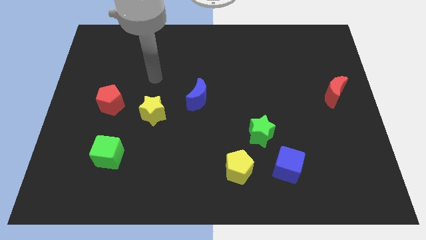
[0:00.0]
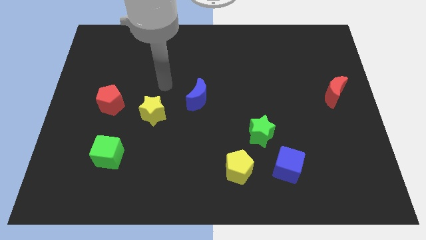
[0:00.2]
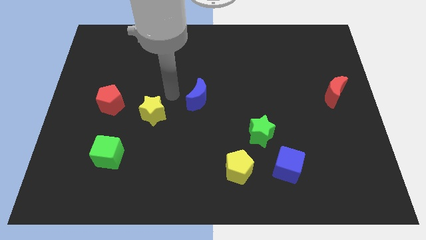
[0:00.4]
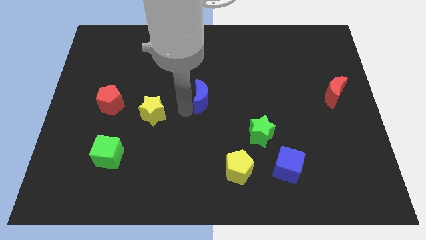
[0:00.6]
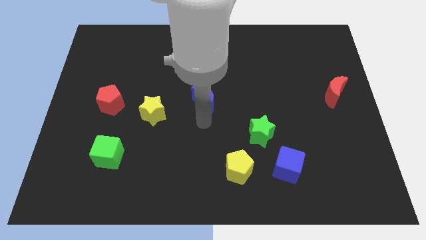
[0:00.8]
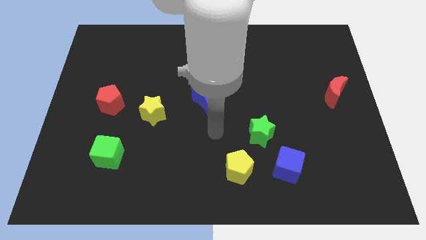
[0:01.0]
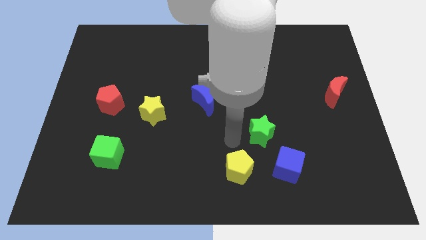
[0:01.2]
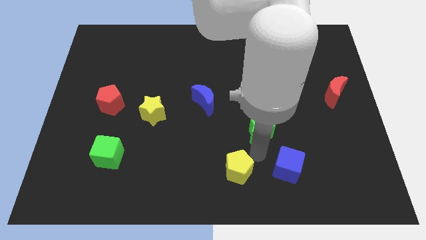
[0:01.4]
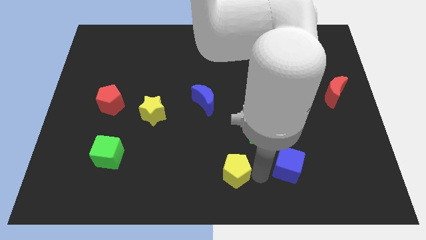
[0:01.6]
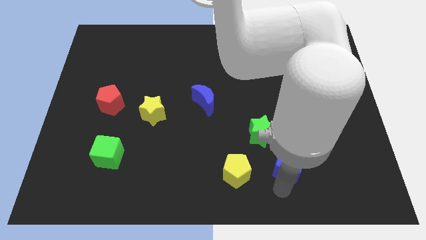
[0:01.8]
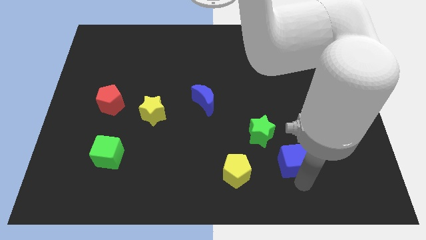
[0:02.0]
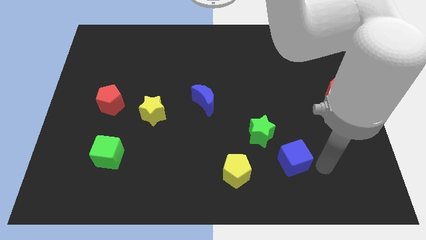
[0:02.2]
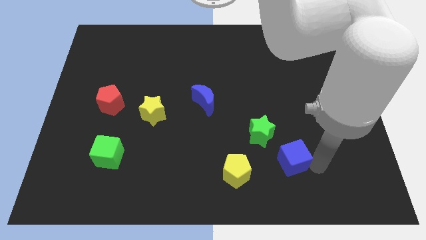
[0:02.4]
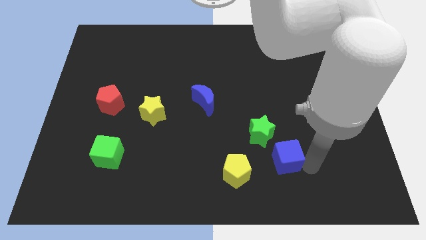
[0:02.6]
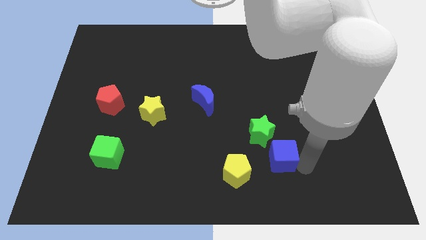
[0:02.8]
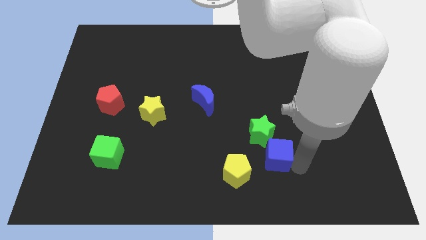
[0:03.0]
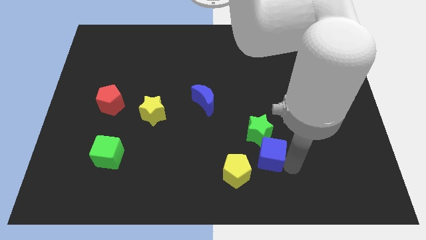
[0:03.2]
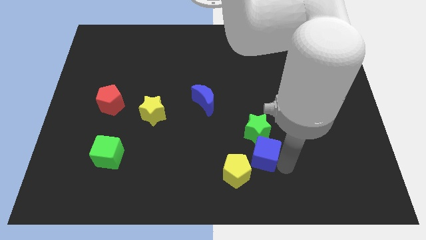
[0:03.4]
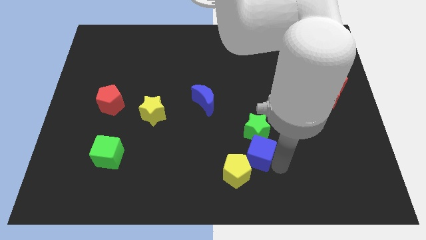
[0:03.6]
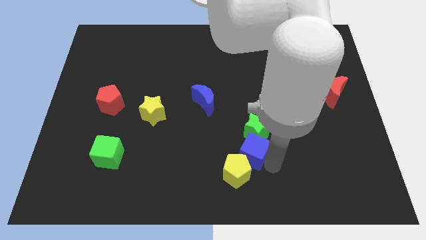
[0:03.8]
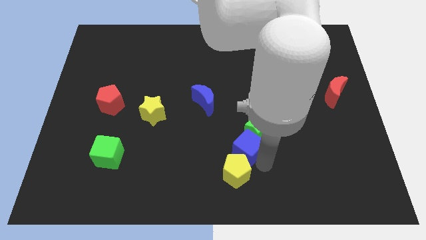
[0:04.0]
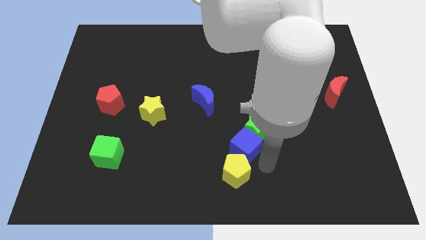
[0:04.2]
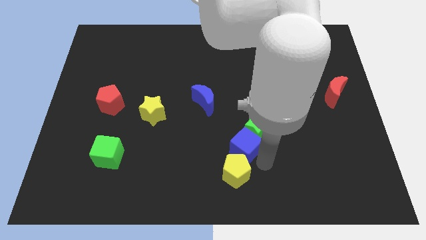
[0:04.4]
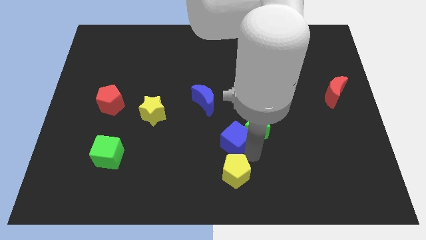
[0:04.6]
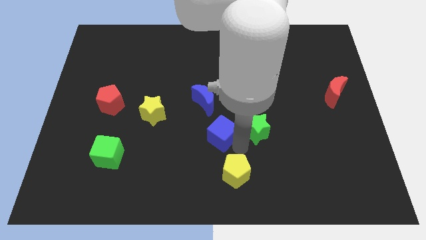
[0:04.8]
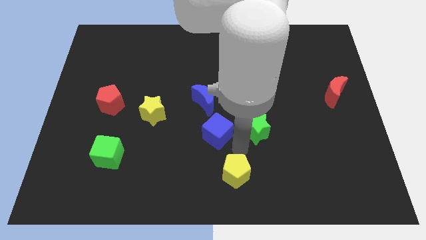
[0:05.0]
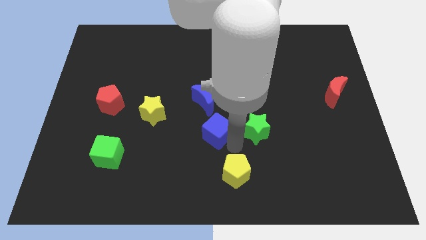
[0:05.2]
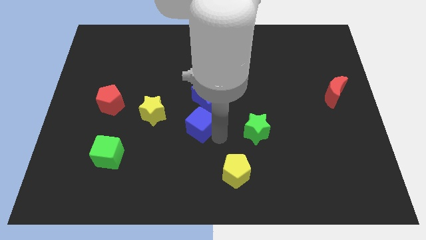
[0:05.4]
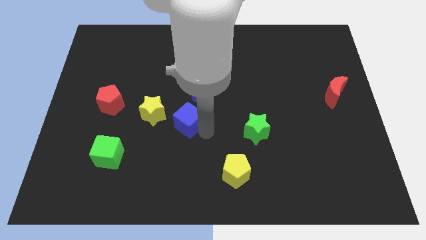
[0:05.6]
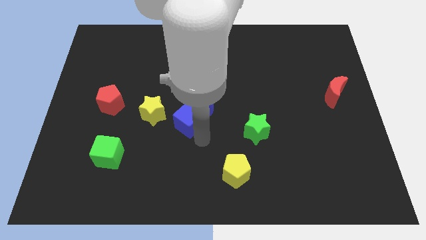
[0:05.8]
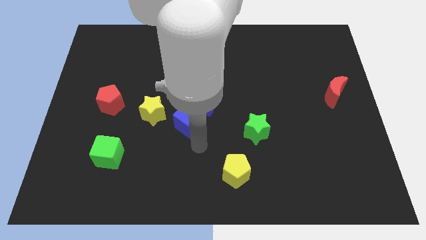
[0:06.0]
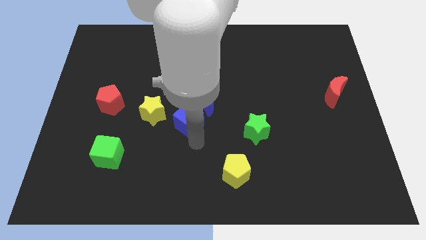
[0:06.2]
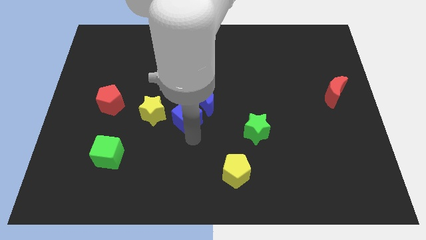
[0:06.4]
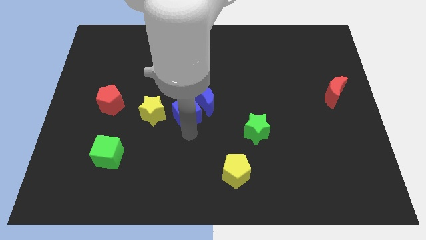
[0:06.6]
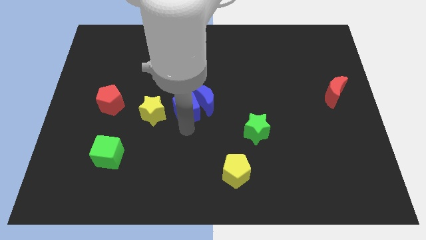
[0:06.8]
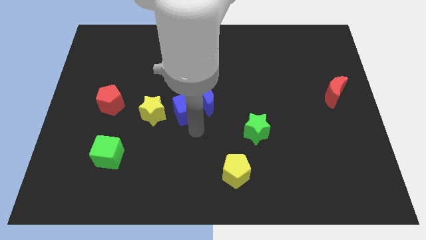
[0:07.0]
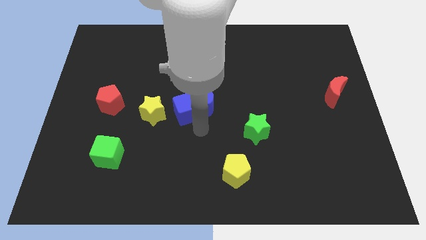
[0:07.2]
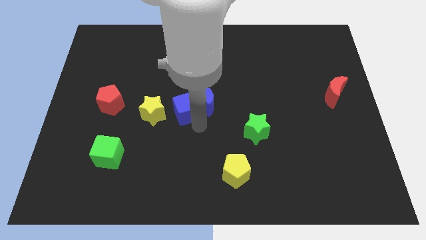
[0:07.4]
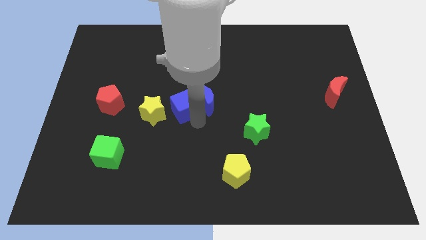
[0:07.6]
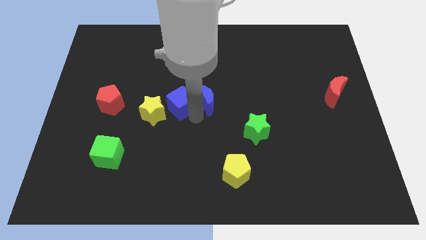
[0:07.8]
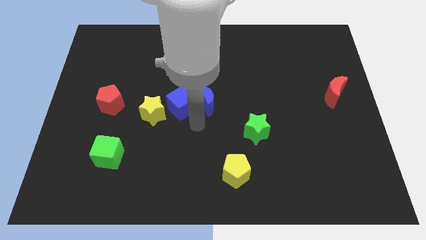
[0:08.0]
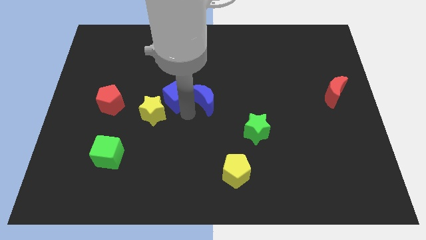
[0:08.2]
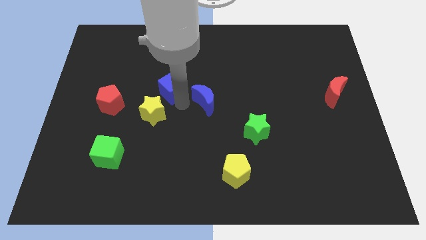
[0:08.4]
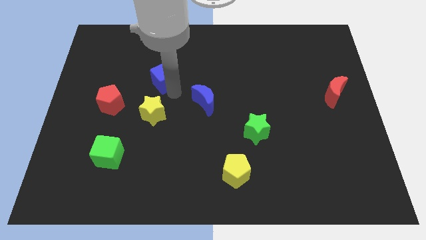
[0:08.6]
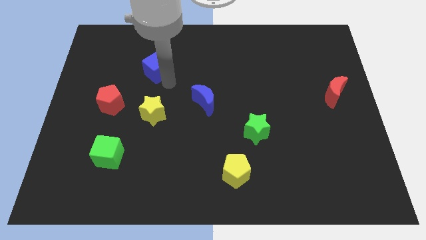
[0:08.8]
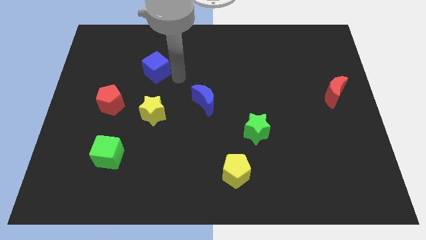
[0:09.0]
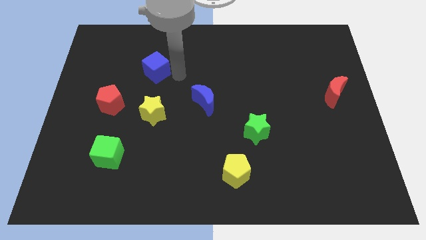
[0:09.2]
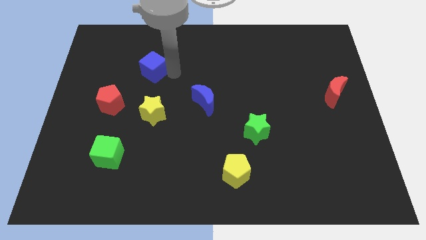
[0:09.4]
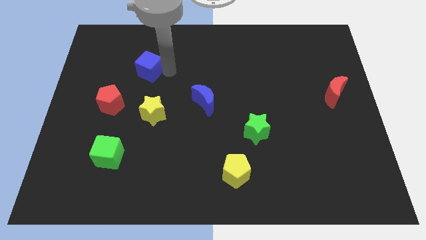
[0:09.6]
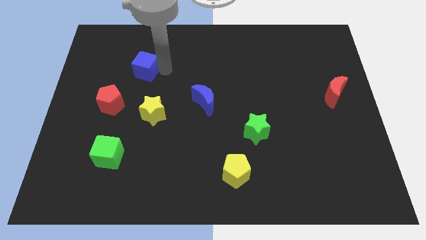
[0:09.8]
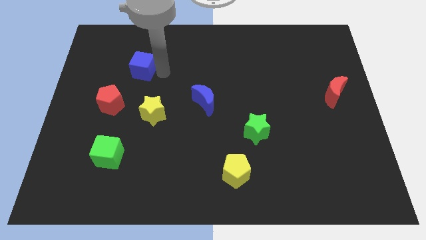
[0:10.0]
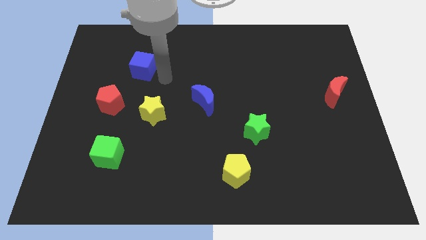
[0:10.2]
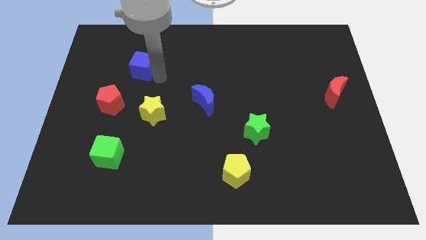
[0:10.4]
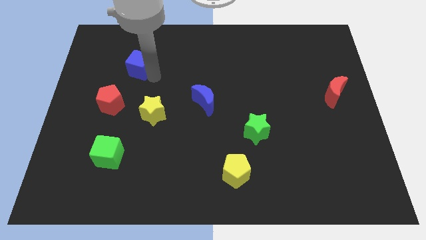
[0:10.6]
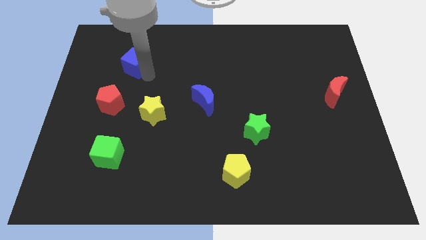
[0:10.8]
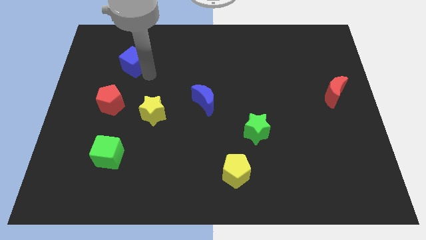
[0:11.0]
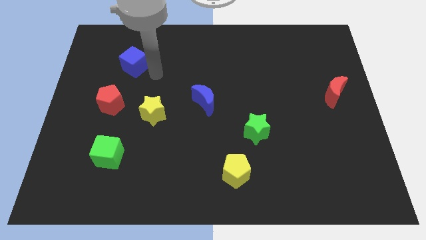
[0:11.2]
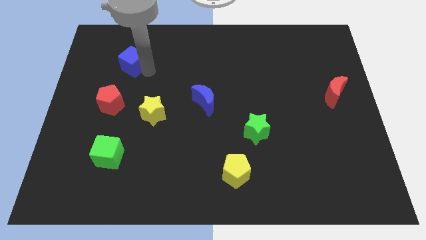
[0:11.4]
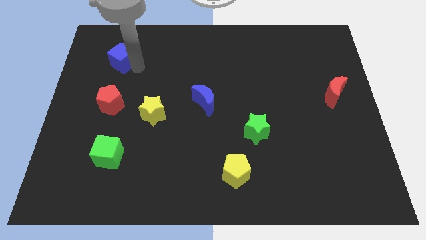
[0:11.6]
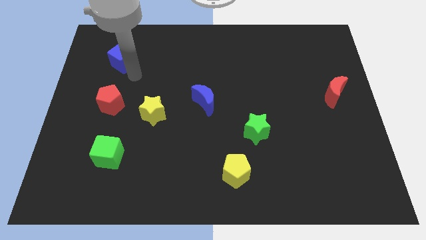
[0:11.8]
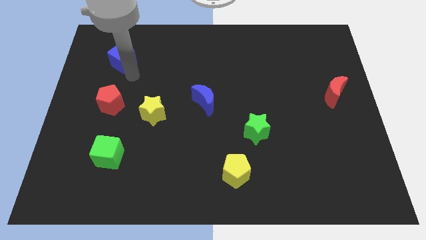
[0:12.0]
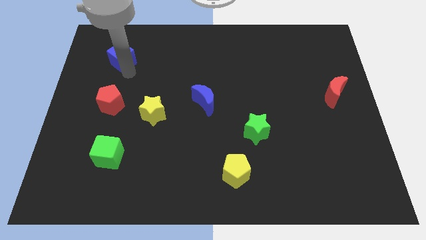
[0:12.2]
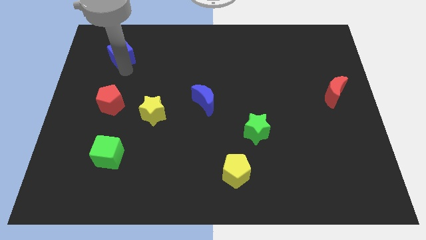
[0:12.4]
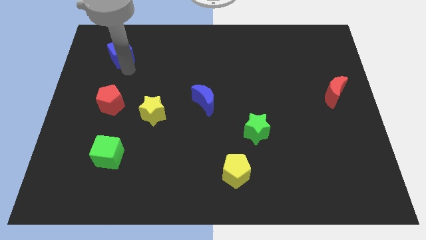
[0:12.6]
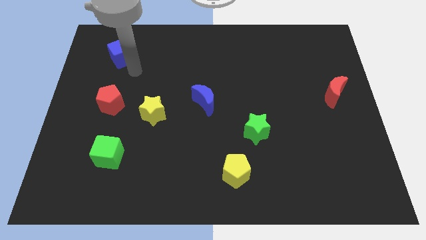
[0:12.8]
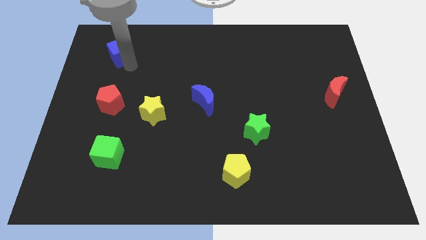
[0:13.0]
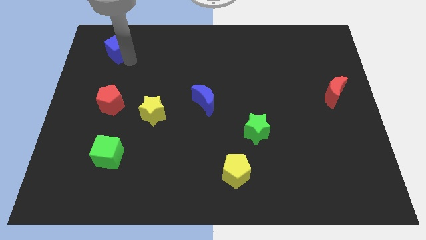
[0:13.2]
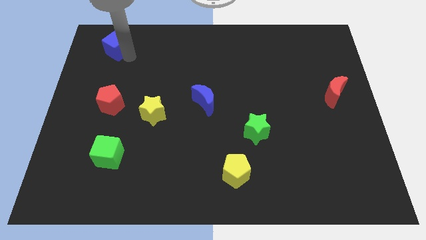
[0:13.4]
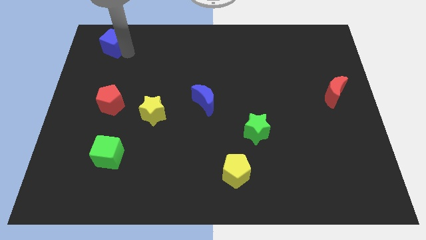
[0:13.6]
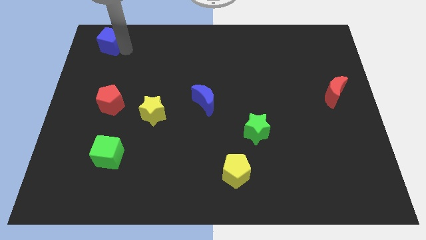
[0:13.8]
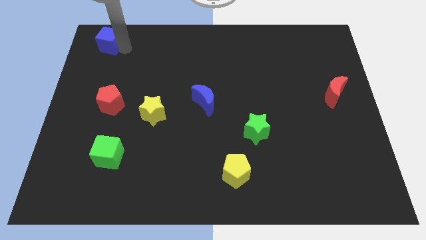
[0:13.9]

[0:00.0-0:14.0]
put the blue cube to the top left corner
